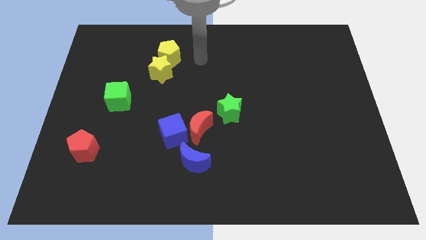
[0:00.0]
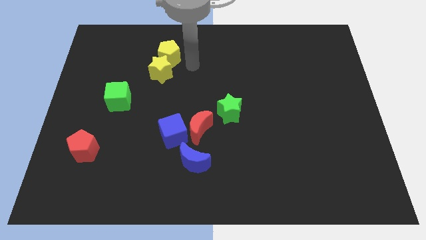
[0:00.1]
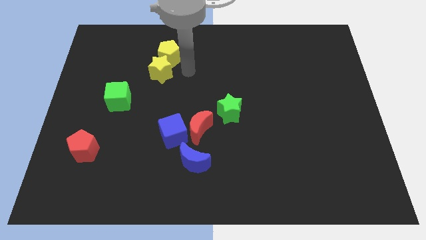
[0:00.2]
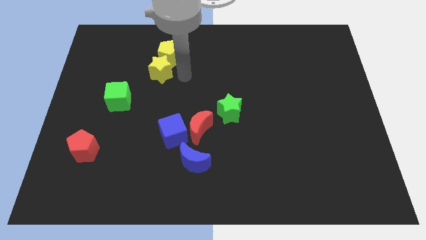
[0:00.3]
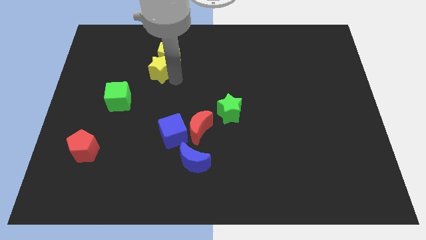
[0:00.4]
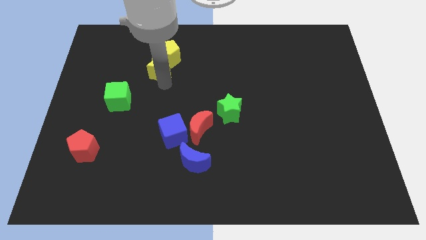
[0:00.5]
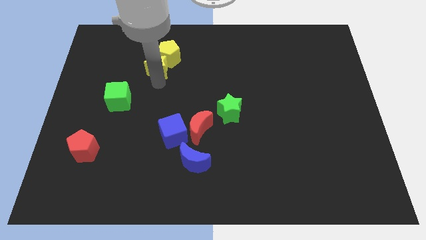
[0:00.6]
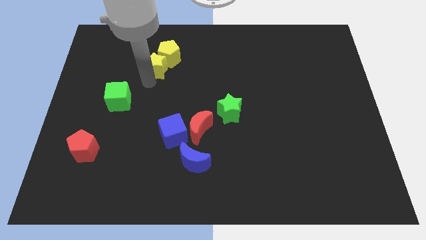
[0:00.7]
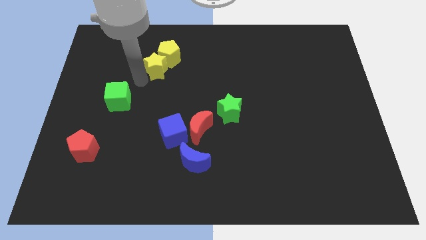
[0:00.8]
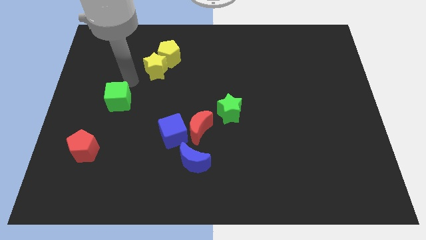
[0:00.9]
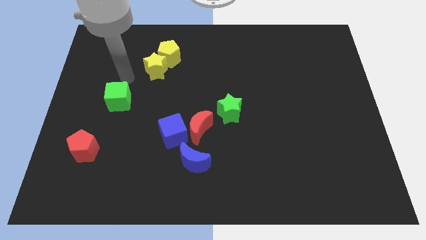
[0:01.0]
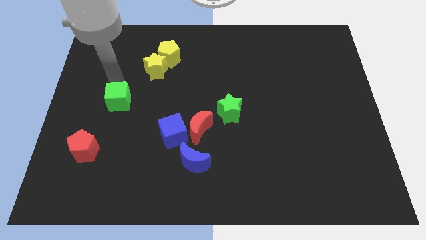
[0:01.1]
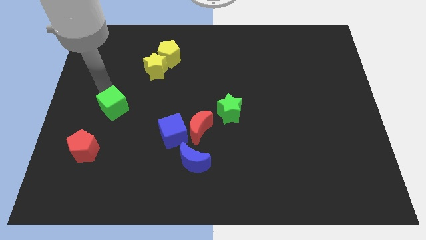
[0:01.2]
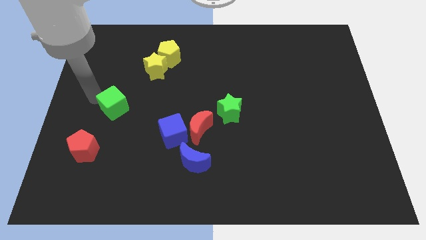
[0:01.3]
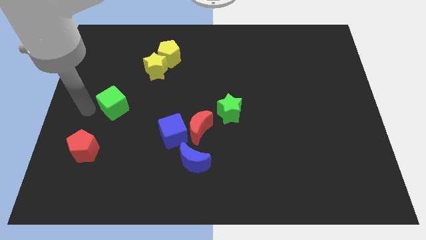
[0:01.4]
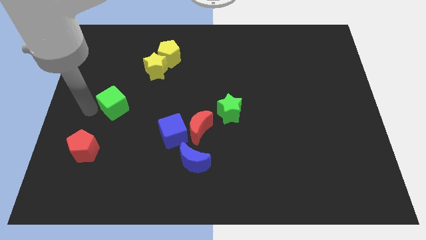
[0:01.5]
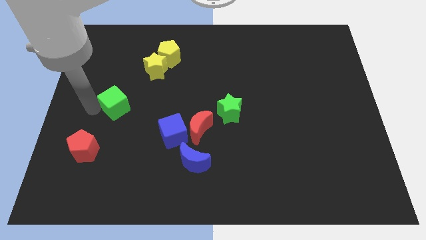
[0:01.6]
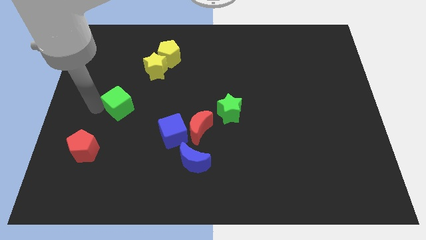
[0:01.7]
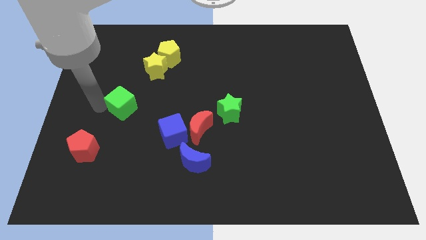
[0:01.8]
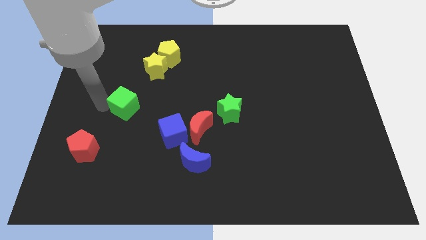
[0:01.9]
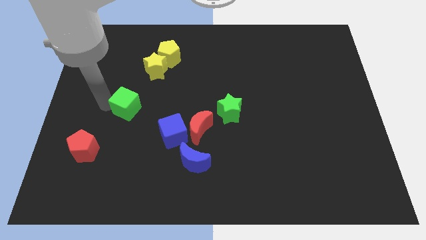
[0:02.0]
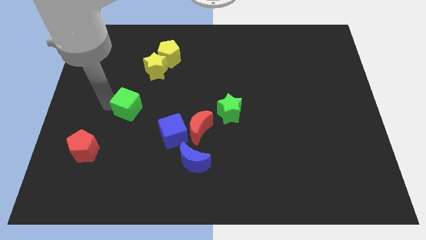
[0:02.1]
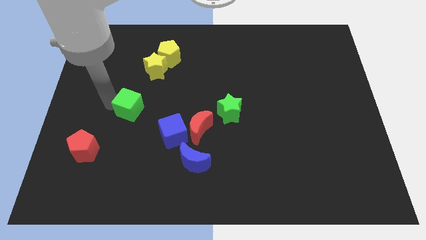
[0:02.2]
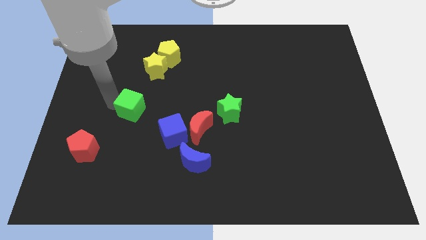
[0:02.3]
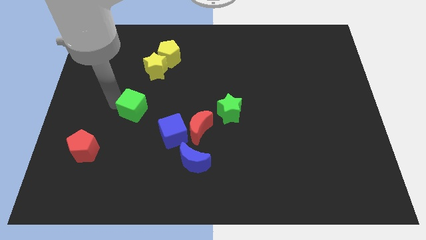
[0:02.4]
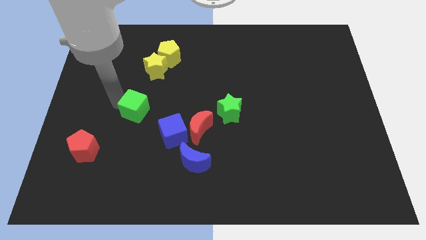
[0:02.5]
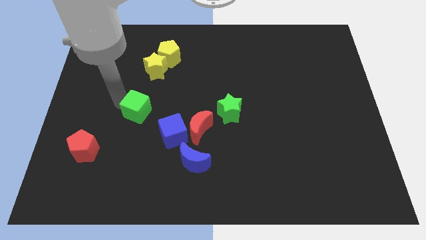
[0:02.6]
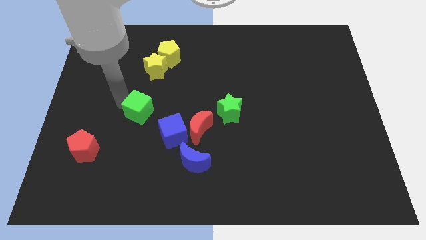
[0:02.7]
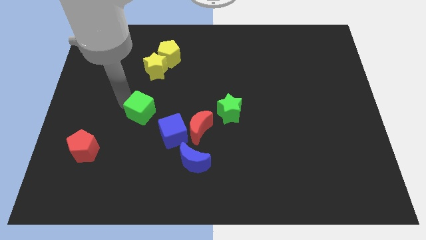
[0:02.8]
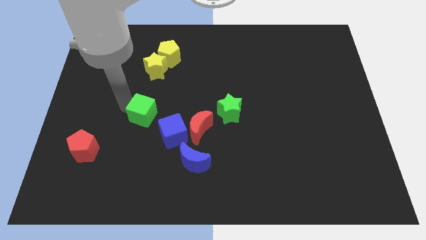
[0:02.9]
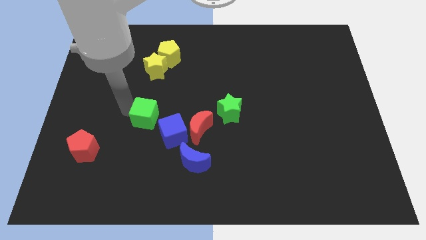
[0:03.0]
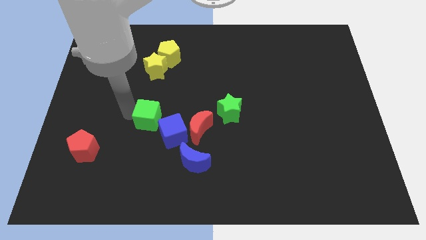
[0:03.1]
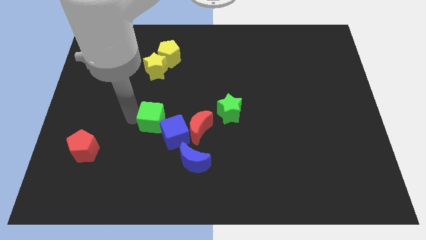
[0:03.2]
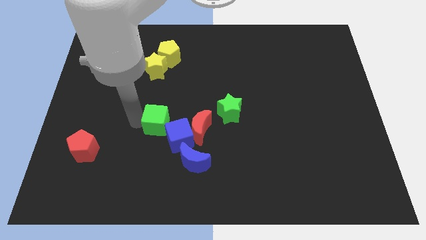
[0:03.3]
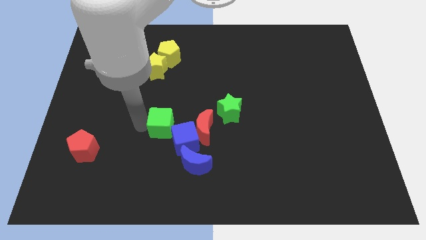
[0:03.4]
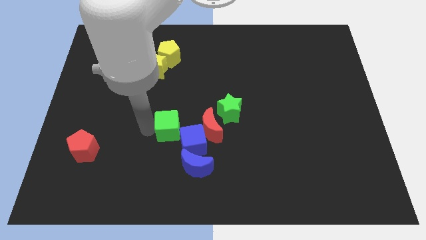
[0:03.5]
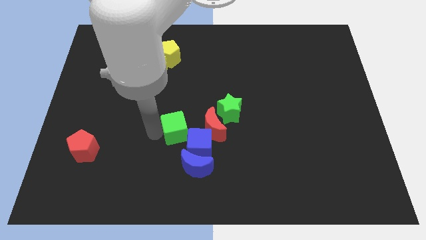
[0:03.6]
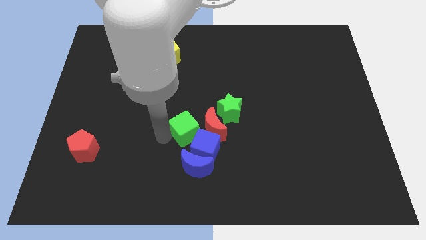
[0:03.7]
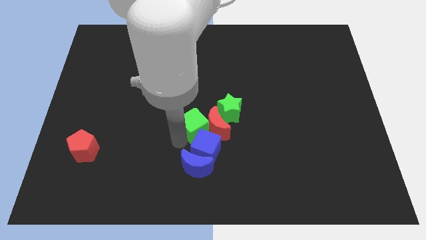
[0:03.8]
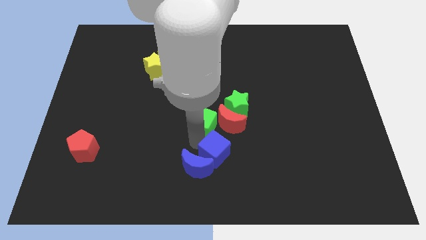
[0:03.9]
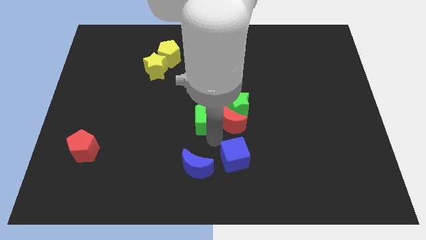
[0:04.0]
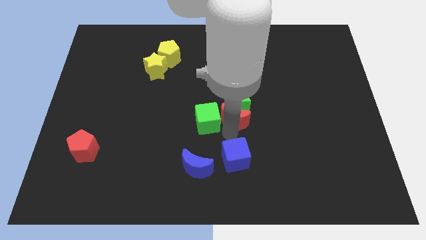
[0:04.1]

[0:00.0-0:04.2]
move the green cube right

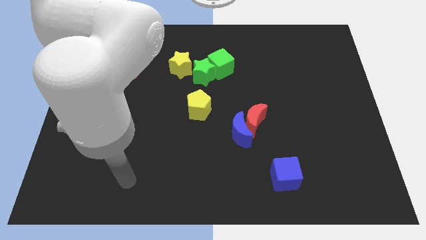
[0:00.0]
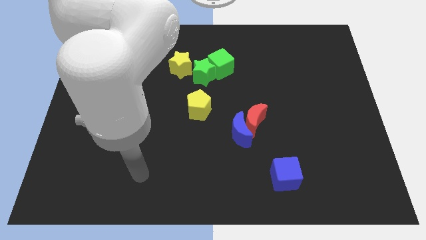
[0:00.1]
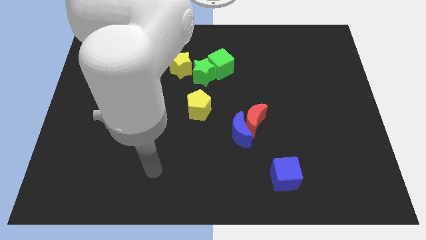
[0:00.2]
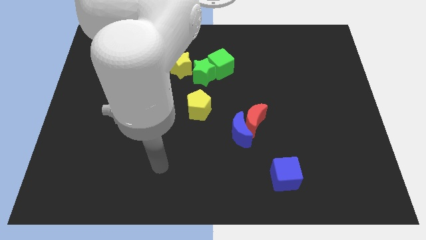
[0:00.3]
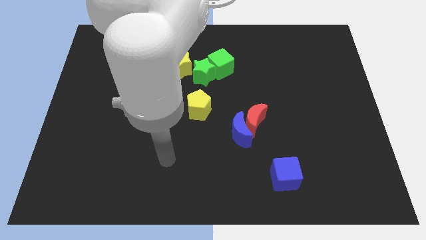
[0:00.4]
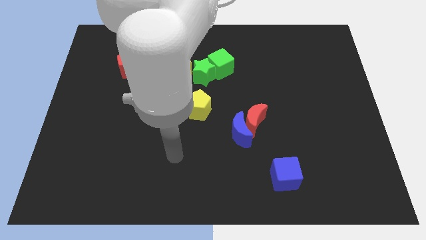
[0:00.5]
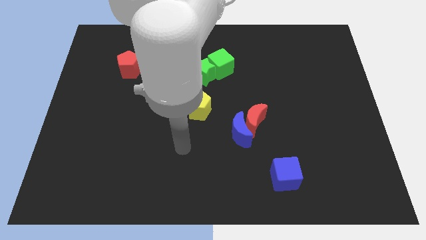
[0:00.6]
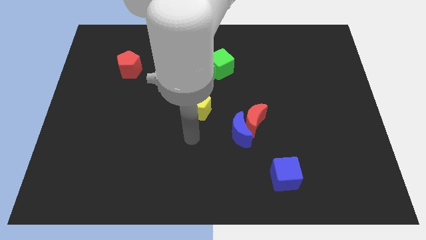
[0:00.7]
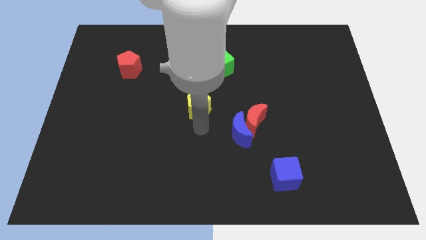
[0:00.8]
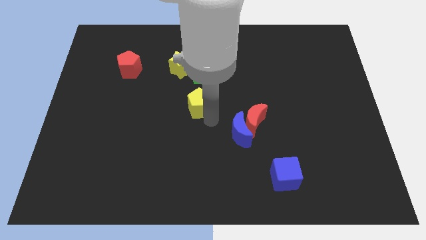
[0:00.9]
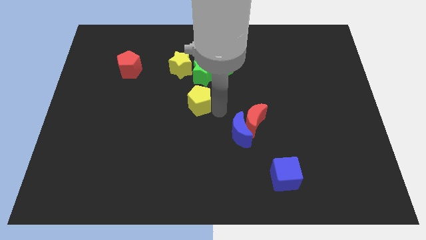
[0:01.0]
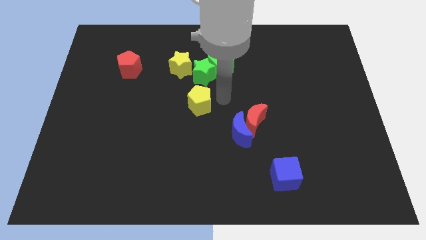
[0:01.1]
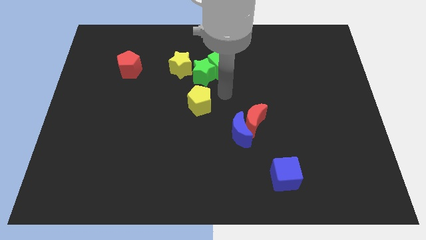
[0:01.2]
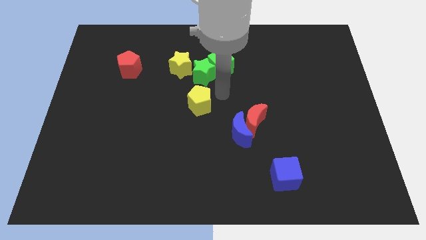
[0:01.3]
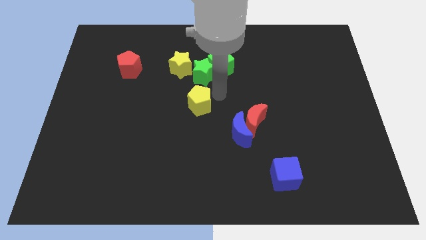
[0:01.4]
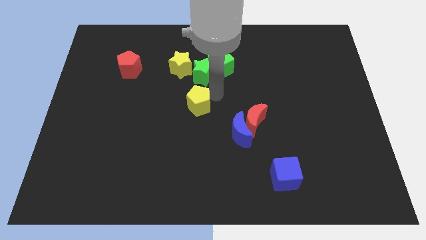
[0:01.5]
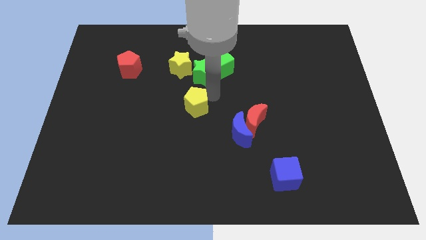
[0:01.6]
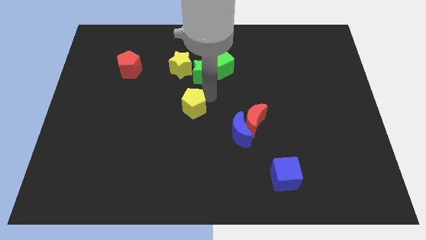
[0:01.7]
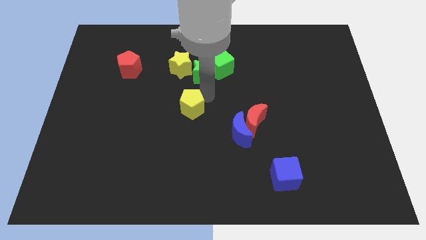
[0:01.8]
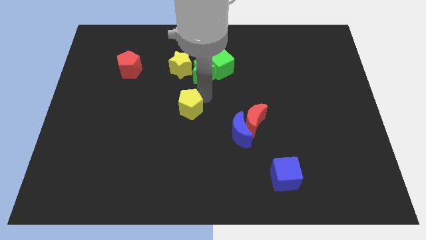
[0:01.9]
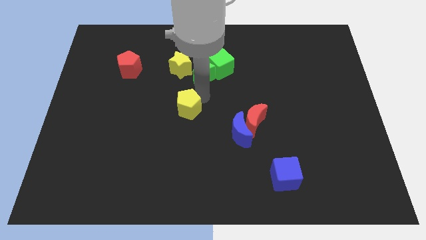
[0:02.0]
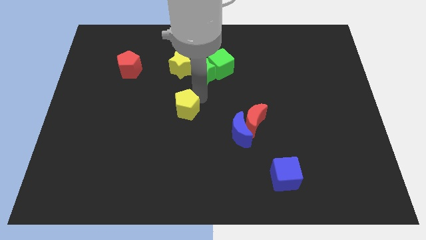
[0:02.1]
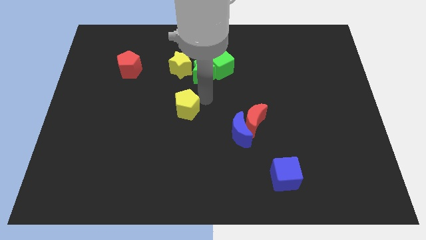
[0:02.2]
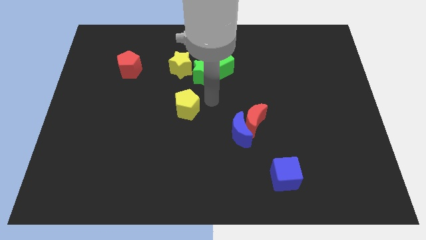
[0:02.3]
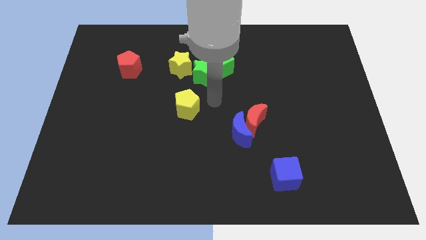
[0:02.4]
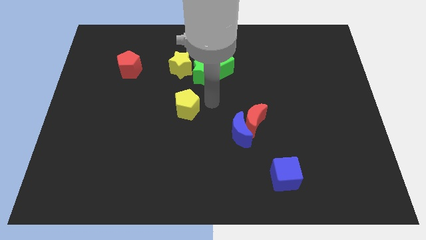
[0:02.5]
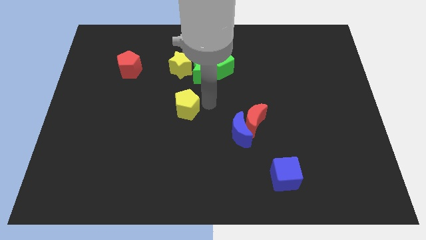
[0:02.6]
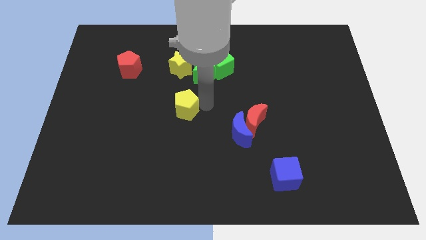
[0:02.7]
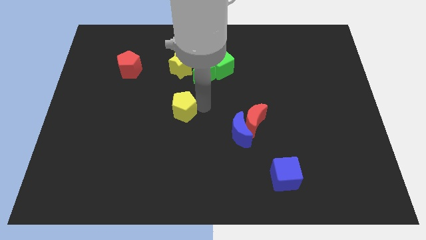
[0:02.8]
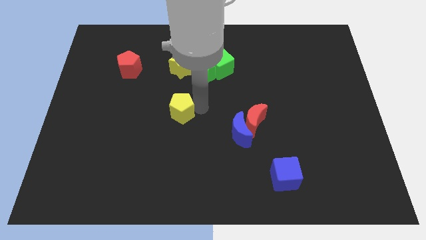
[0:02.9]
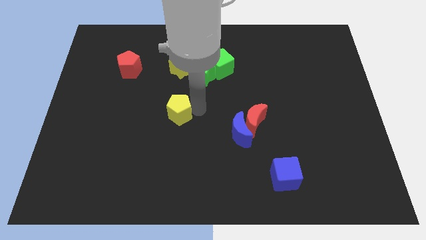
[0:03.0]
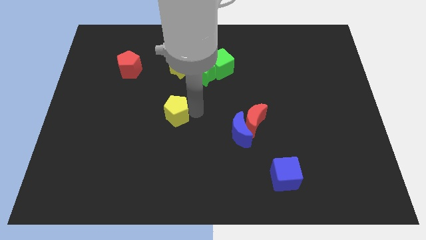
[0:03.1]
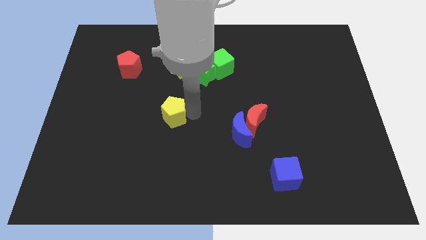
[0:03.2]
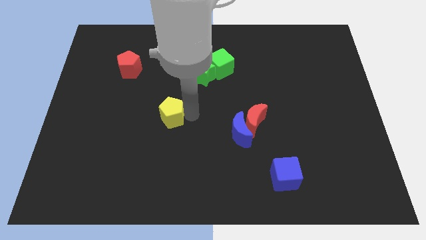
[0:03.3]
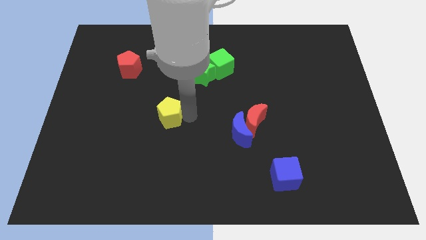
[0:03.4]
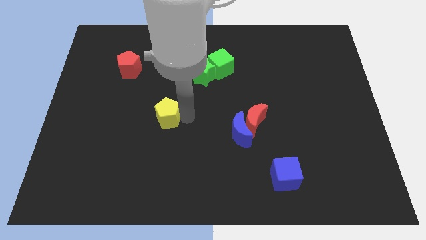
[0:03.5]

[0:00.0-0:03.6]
slightly push the yellow pentagon left
